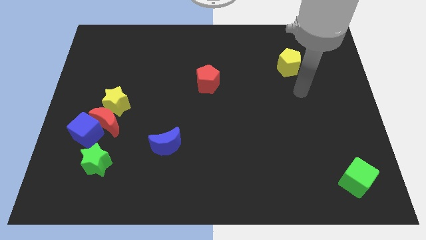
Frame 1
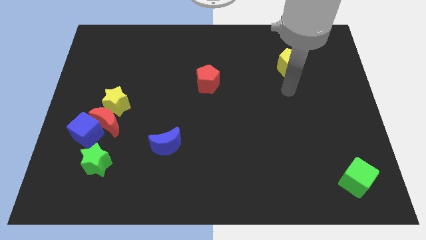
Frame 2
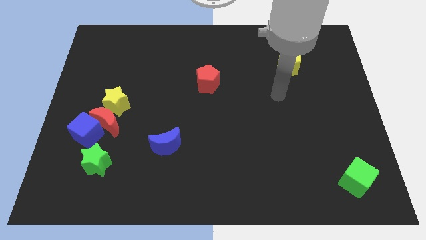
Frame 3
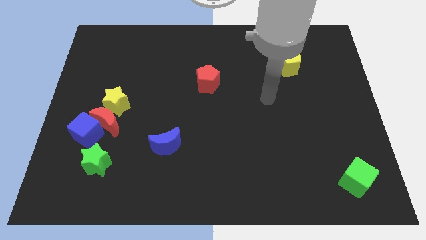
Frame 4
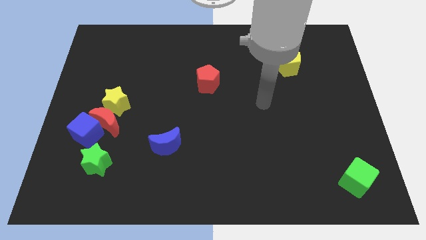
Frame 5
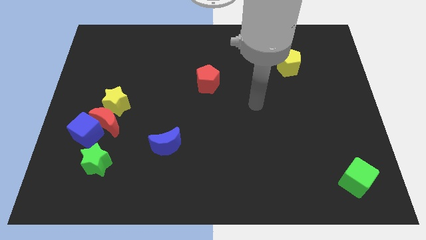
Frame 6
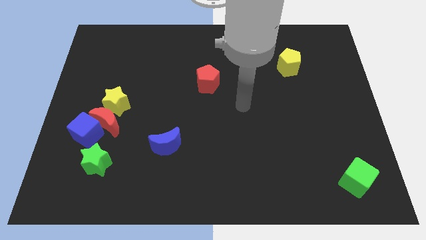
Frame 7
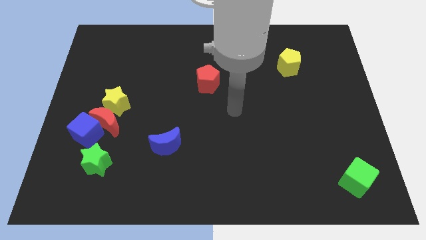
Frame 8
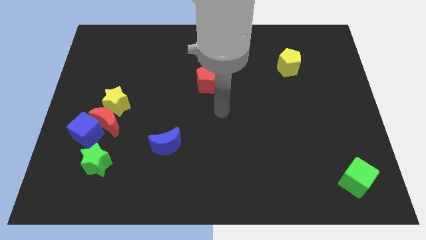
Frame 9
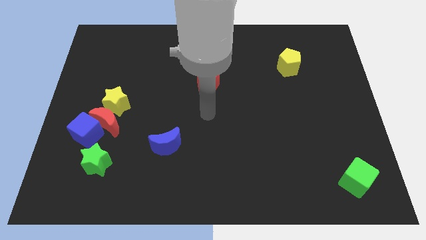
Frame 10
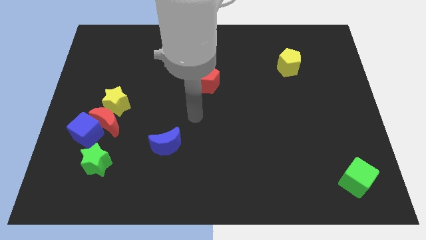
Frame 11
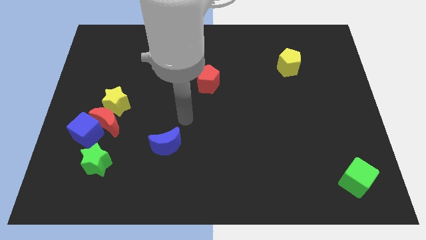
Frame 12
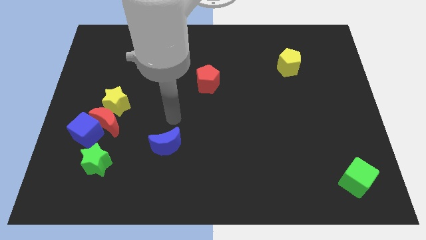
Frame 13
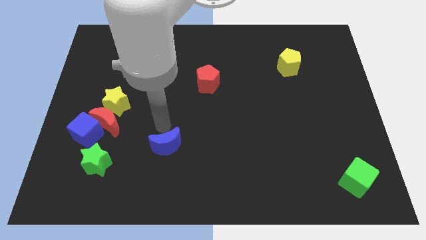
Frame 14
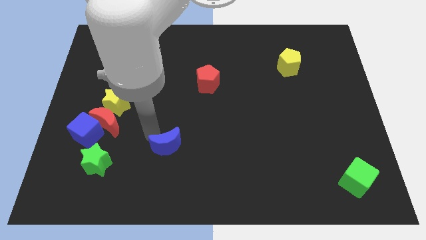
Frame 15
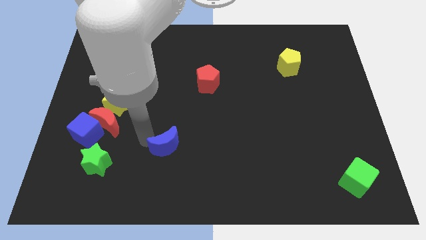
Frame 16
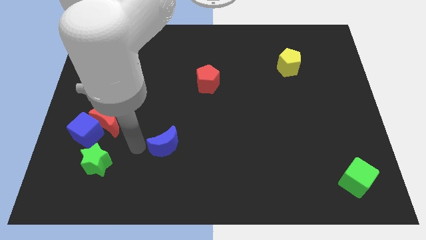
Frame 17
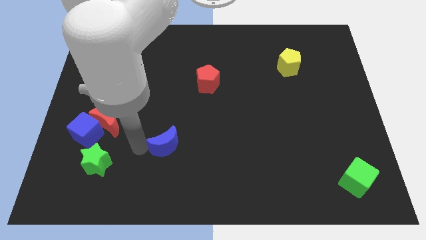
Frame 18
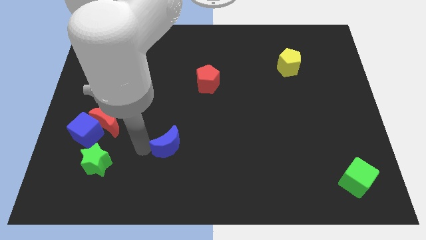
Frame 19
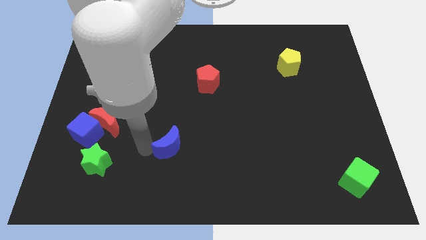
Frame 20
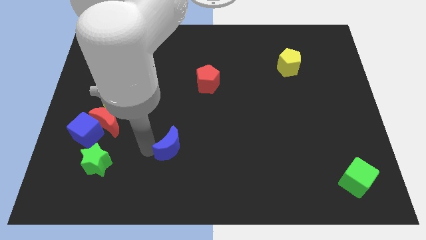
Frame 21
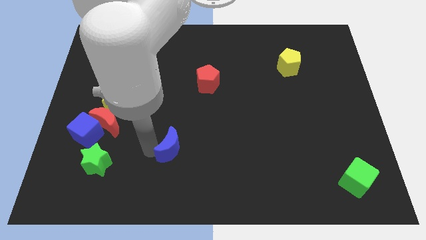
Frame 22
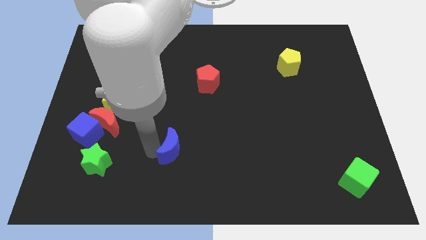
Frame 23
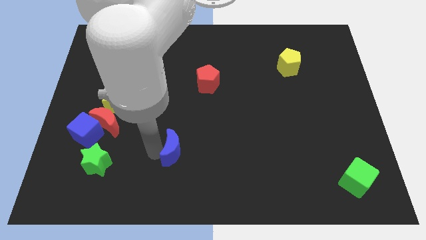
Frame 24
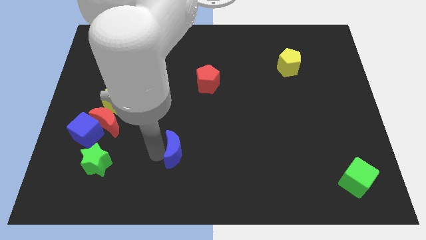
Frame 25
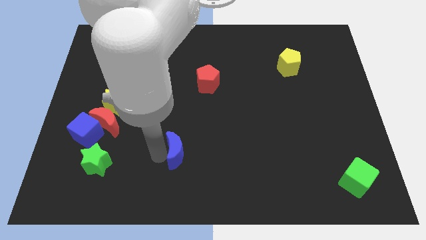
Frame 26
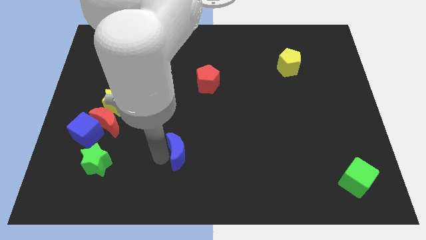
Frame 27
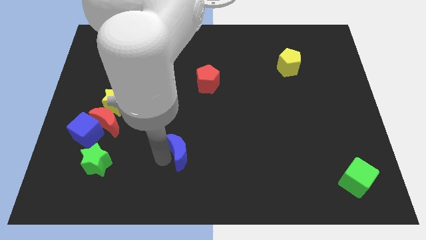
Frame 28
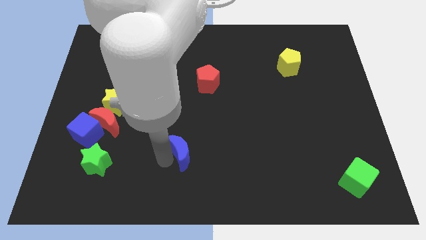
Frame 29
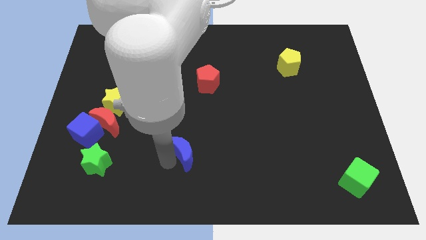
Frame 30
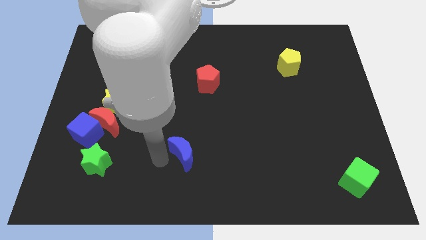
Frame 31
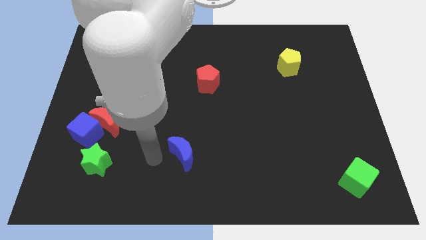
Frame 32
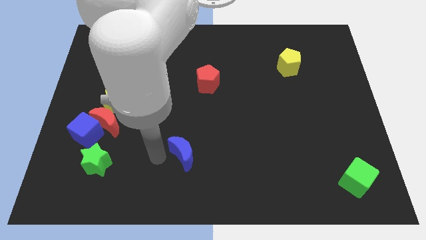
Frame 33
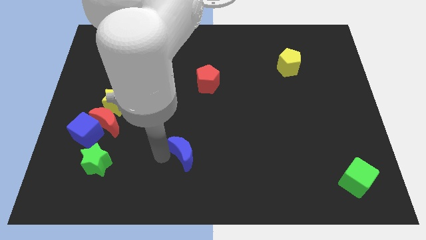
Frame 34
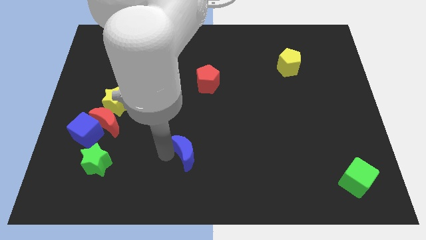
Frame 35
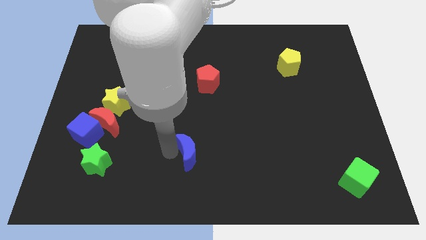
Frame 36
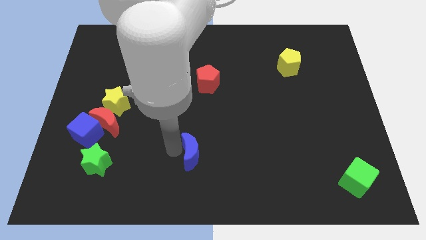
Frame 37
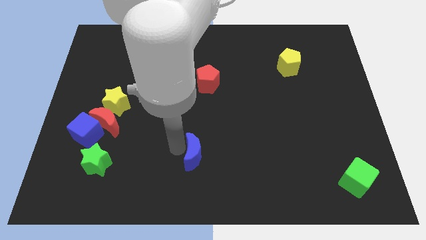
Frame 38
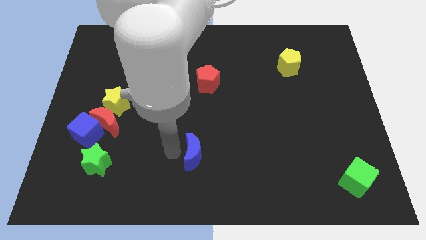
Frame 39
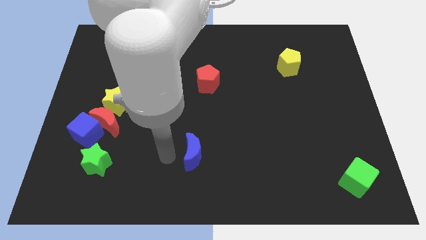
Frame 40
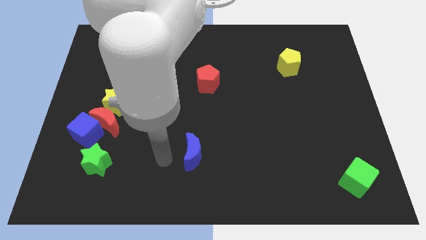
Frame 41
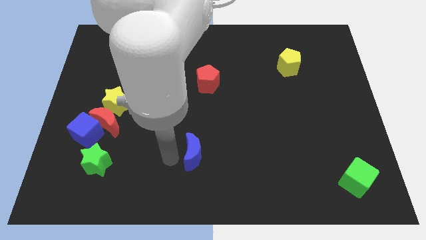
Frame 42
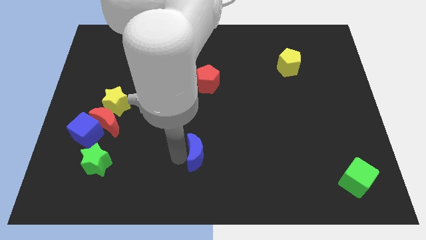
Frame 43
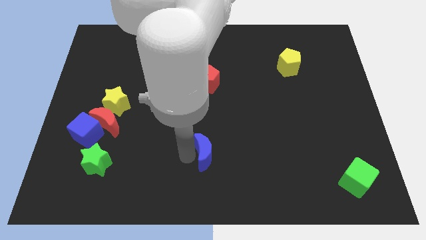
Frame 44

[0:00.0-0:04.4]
slightly move the blue moon right

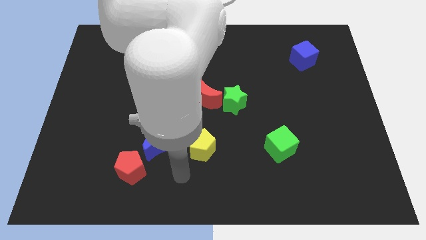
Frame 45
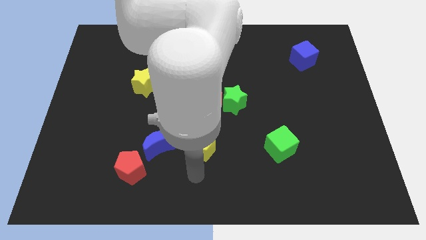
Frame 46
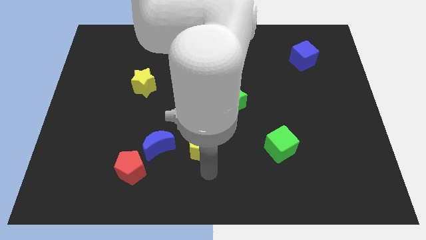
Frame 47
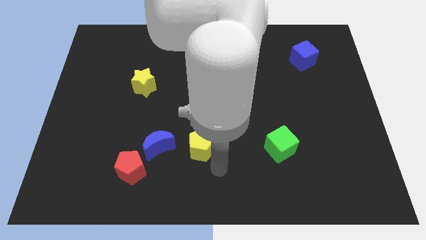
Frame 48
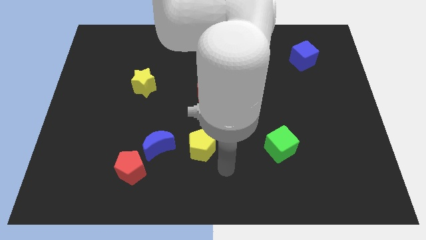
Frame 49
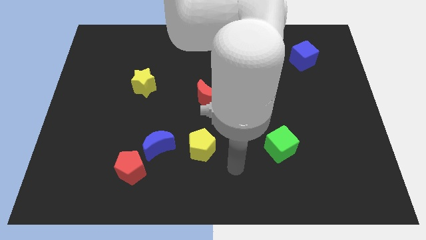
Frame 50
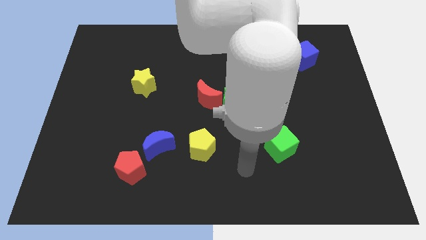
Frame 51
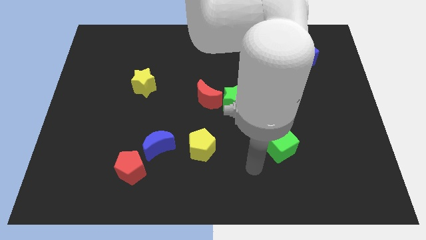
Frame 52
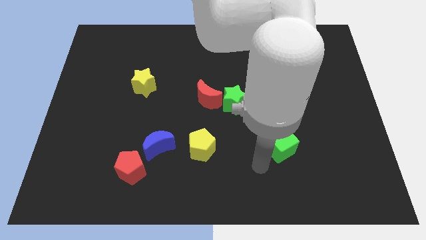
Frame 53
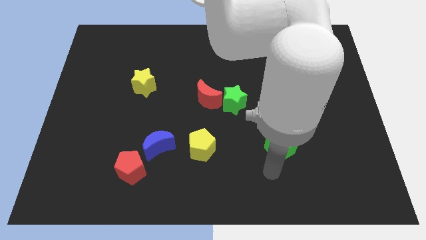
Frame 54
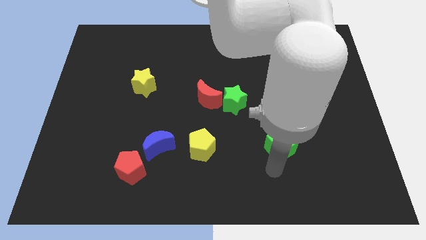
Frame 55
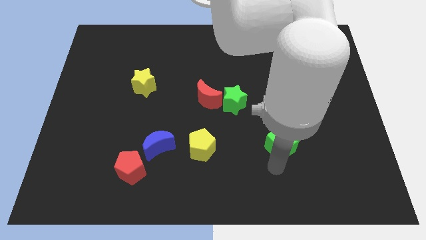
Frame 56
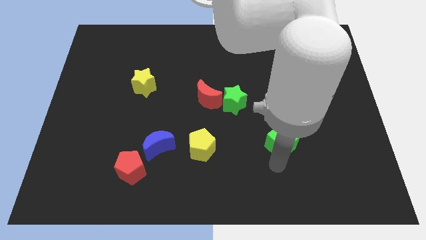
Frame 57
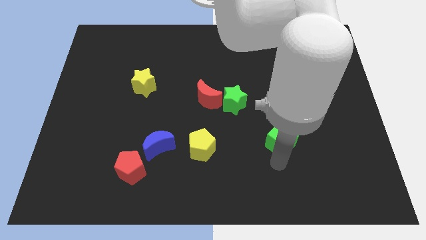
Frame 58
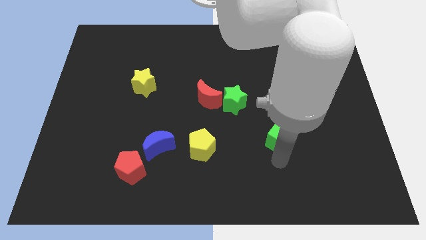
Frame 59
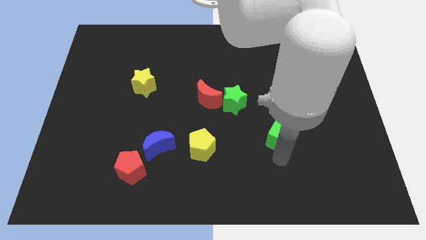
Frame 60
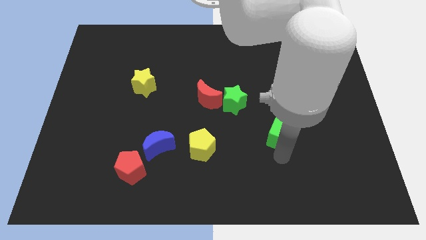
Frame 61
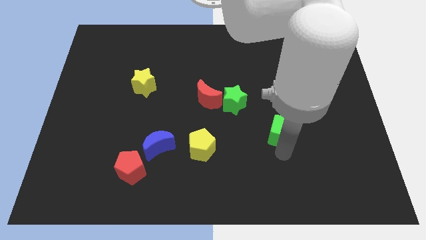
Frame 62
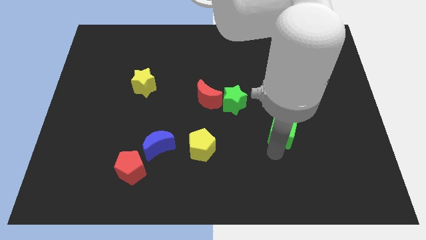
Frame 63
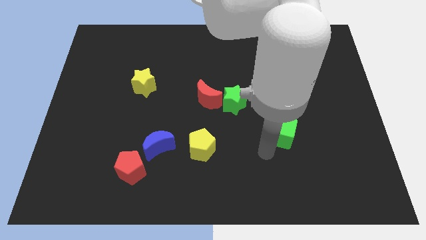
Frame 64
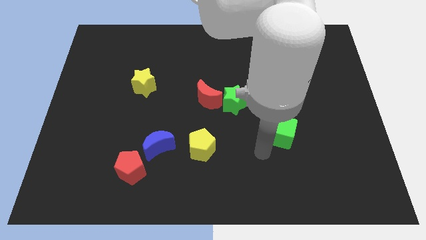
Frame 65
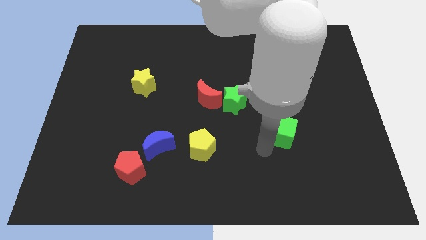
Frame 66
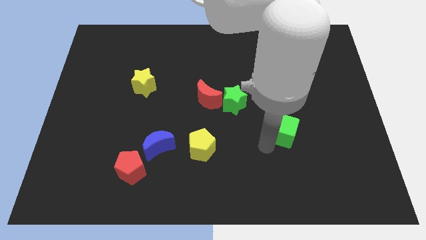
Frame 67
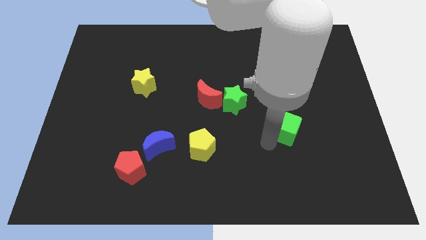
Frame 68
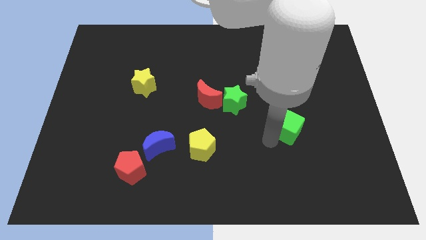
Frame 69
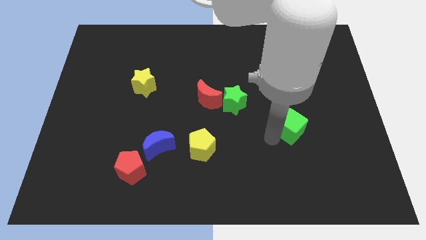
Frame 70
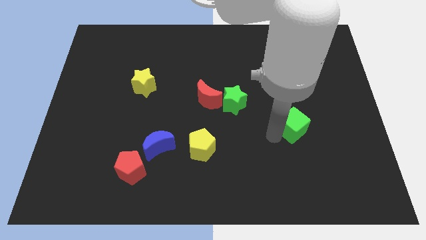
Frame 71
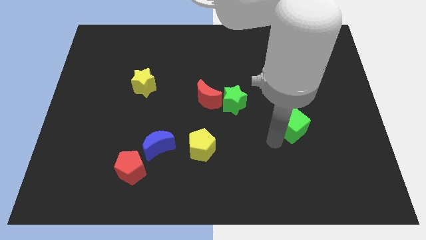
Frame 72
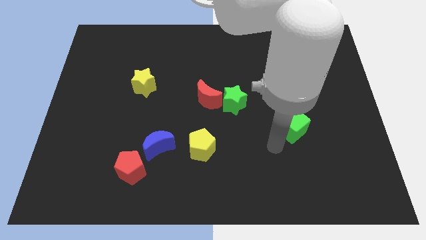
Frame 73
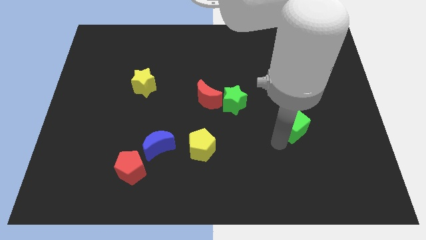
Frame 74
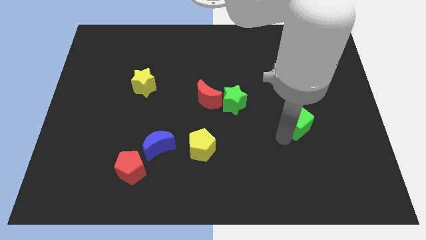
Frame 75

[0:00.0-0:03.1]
slightly slide the green cube upwards and right diagonally

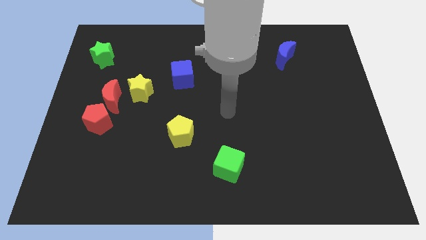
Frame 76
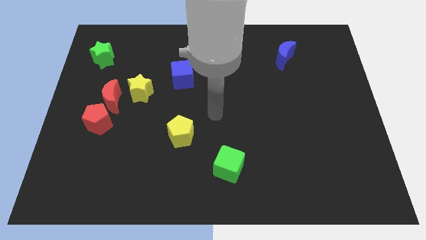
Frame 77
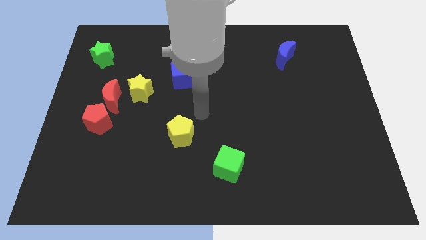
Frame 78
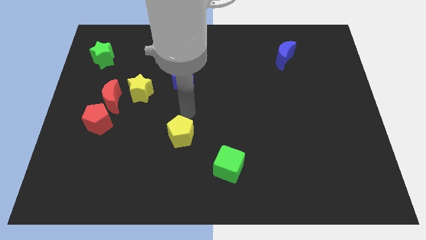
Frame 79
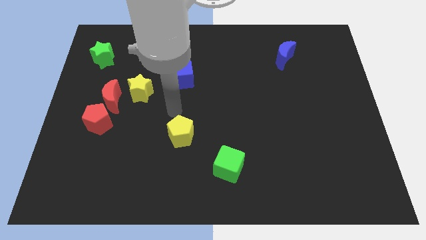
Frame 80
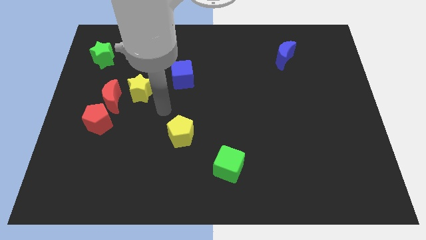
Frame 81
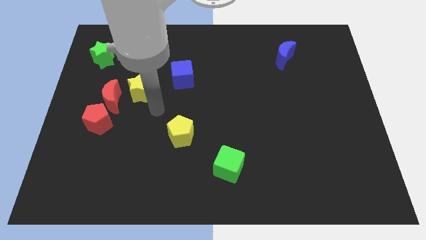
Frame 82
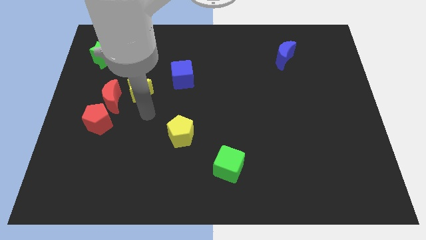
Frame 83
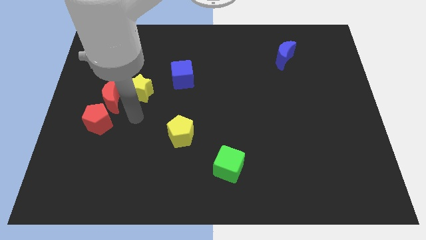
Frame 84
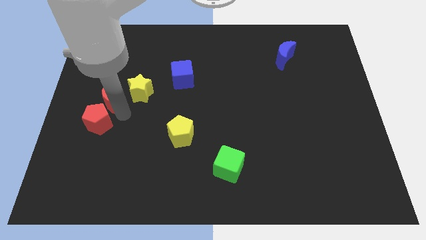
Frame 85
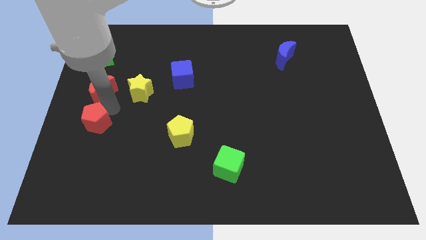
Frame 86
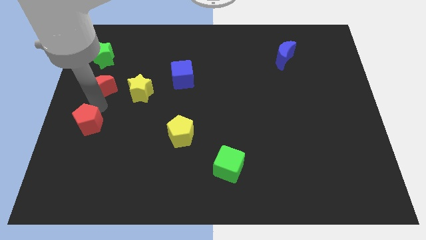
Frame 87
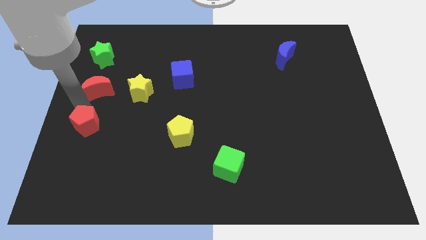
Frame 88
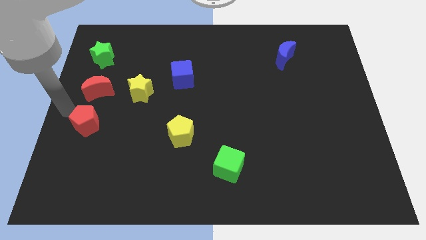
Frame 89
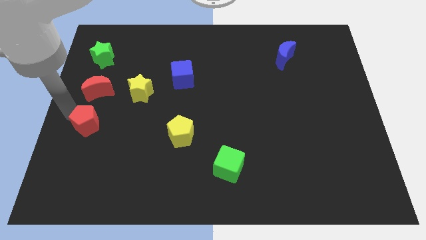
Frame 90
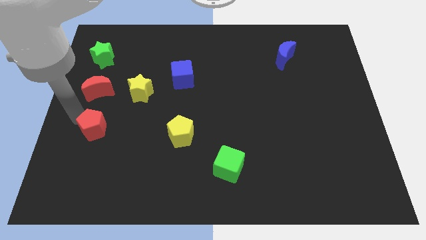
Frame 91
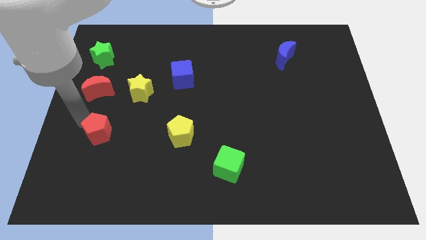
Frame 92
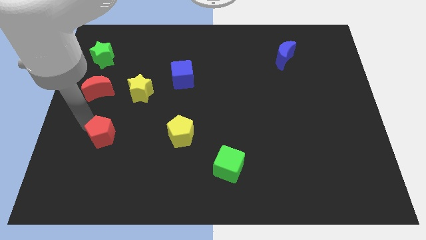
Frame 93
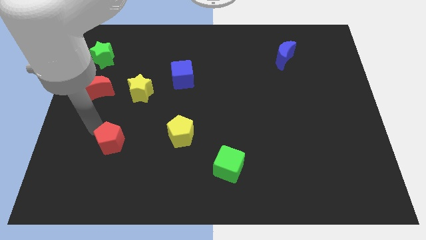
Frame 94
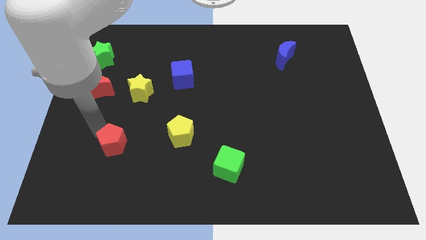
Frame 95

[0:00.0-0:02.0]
slide the red pentagon a little bit down and to the right diagonally
